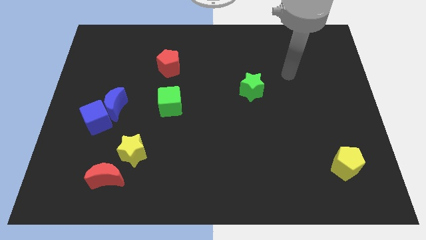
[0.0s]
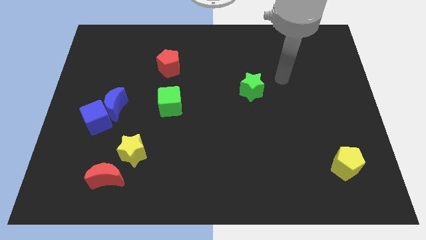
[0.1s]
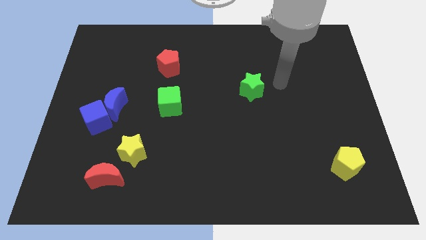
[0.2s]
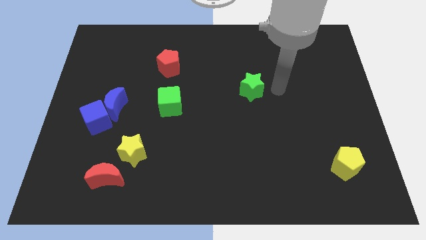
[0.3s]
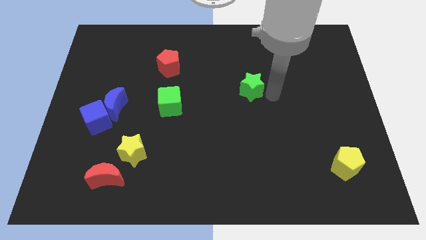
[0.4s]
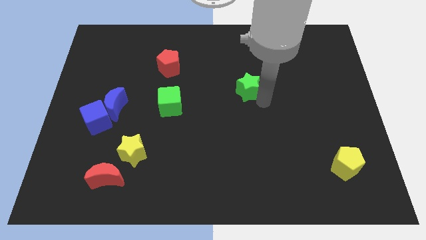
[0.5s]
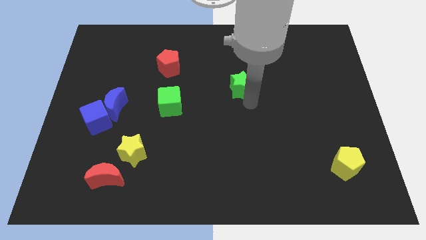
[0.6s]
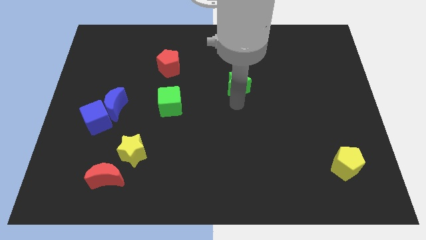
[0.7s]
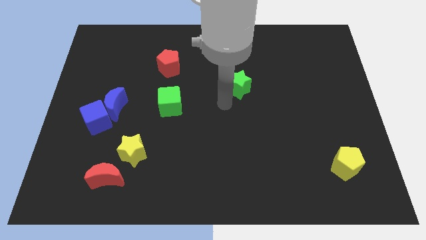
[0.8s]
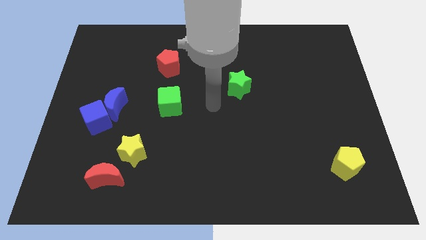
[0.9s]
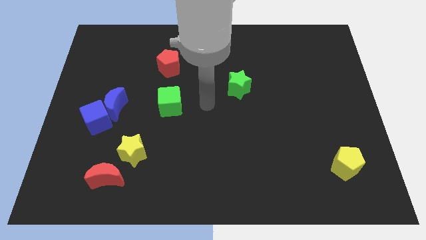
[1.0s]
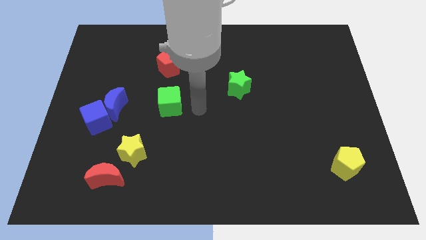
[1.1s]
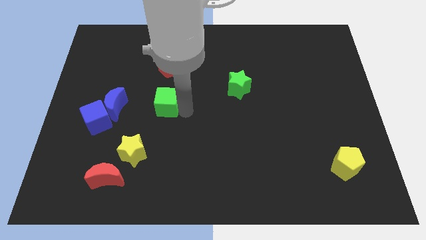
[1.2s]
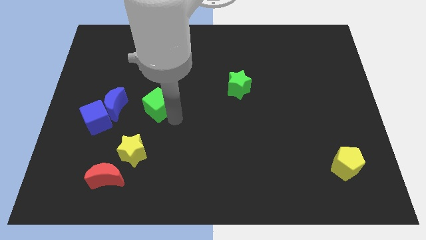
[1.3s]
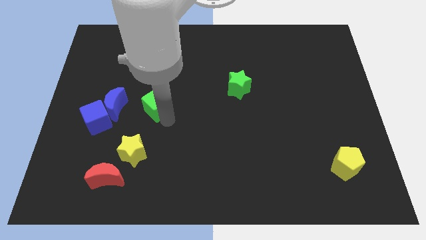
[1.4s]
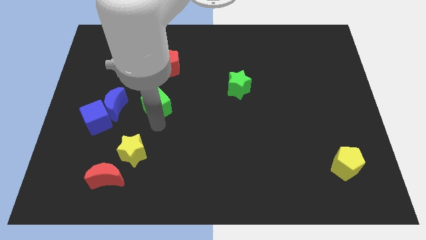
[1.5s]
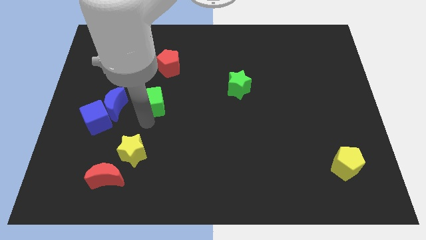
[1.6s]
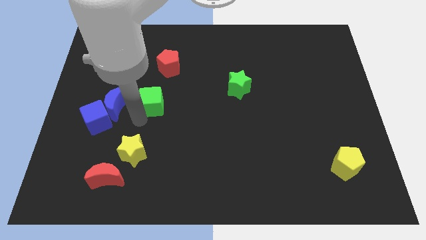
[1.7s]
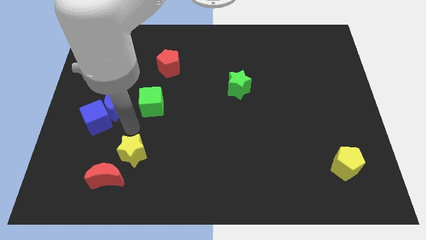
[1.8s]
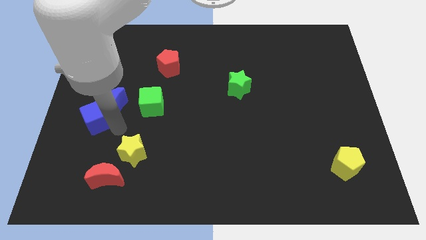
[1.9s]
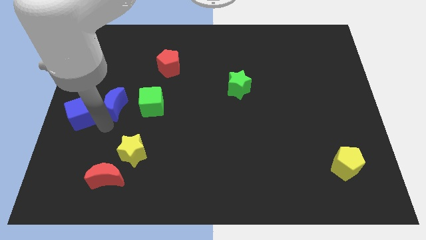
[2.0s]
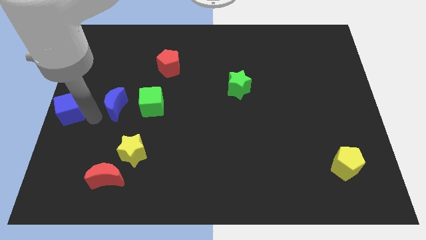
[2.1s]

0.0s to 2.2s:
separate the blue moon from the blue cube

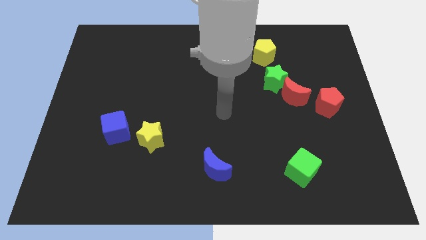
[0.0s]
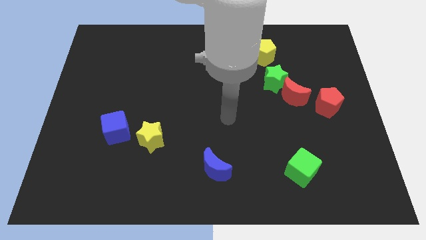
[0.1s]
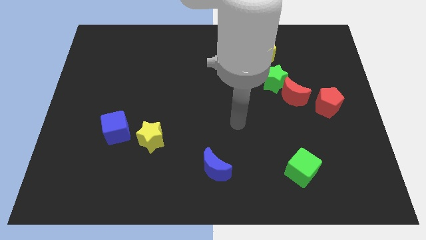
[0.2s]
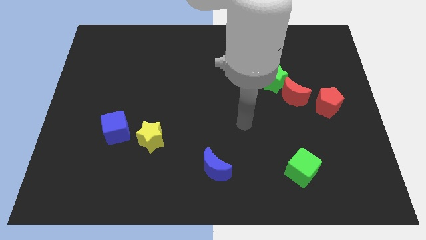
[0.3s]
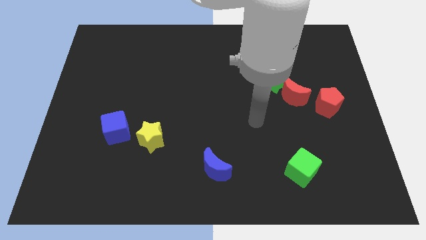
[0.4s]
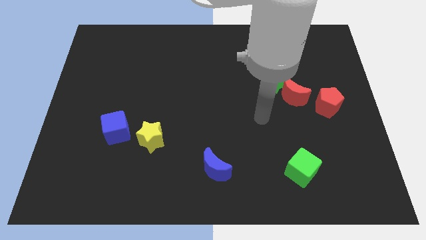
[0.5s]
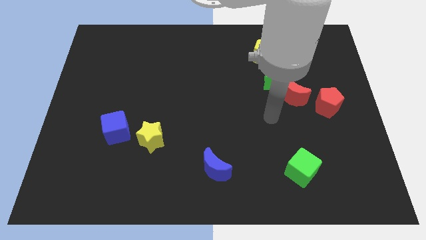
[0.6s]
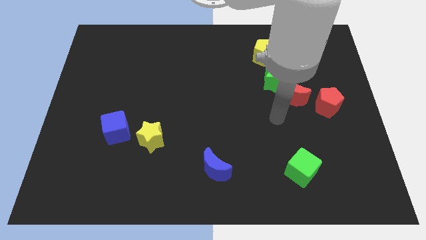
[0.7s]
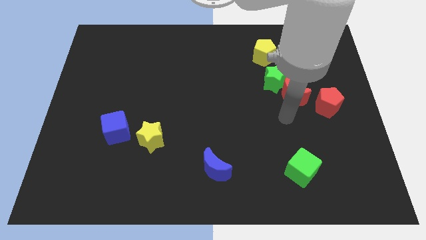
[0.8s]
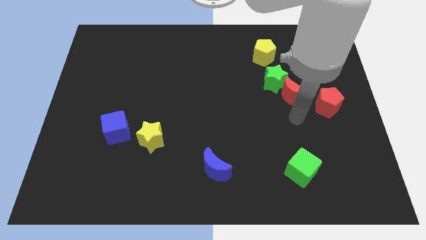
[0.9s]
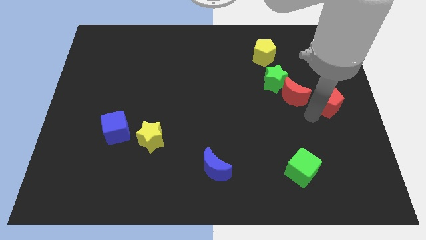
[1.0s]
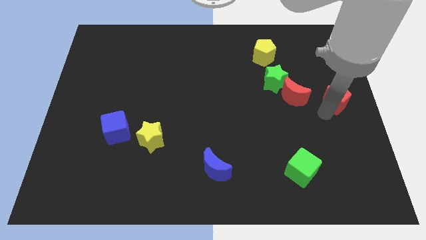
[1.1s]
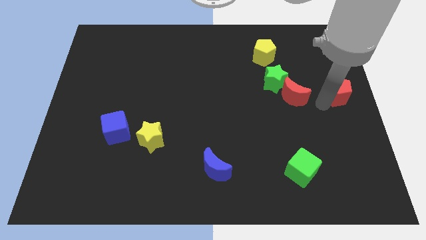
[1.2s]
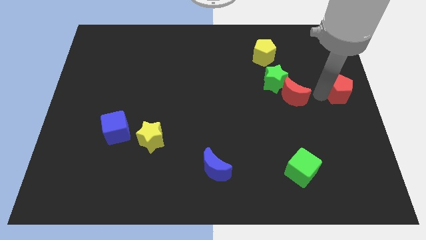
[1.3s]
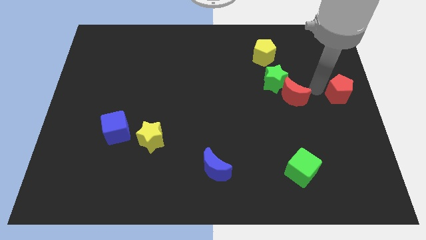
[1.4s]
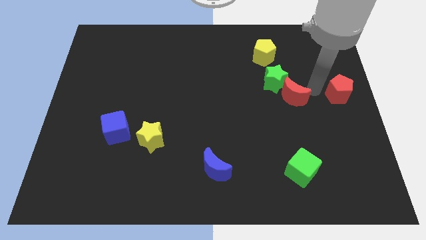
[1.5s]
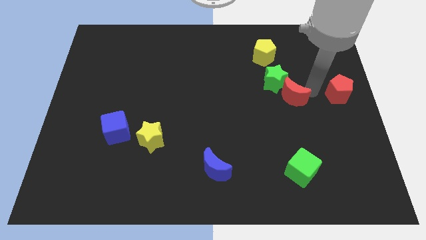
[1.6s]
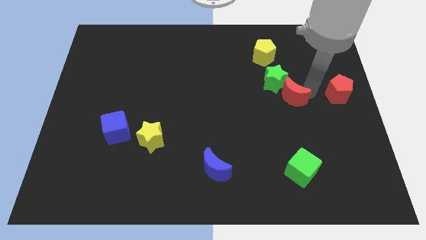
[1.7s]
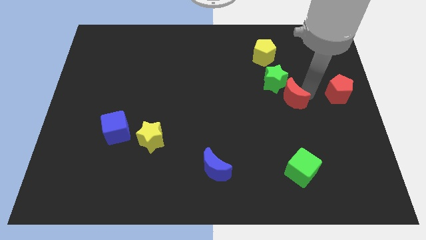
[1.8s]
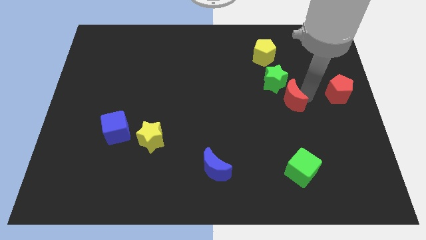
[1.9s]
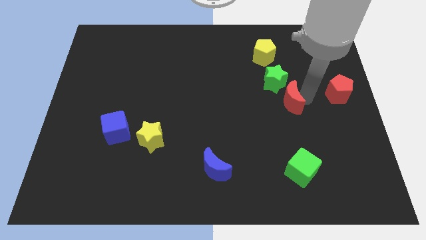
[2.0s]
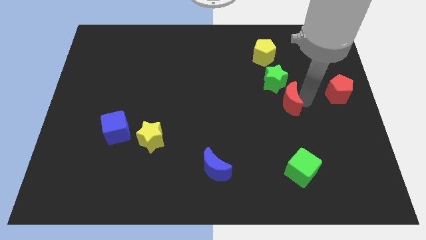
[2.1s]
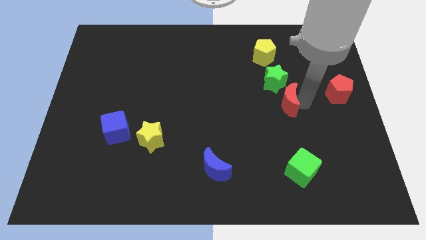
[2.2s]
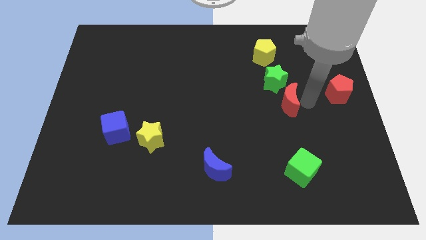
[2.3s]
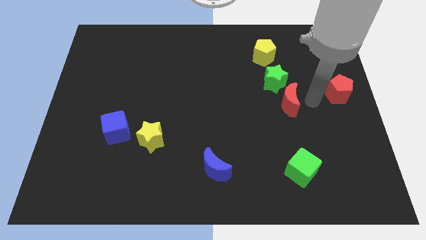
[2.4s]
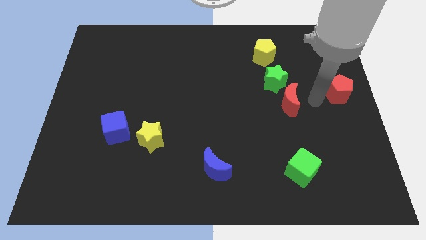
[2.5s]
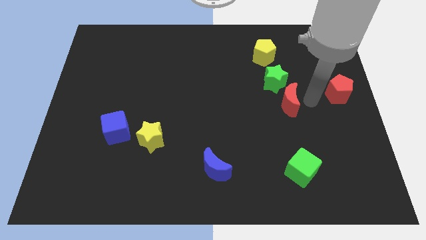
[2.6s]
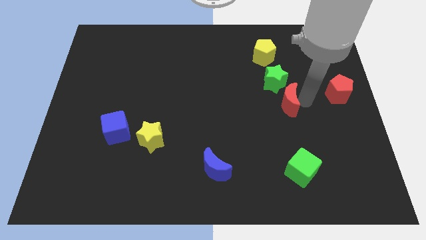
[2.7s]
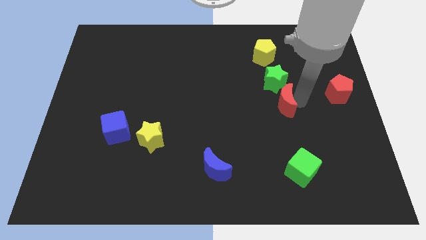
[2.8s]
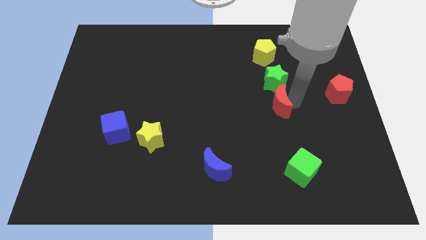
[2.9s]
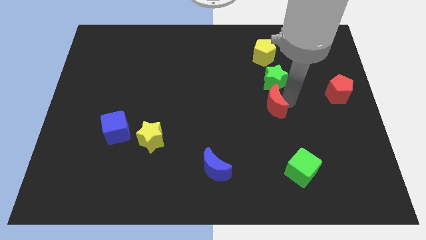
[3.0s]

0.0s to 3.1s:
separate the red moon from the green star and red pentagon

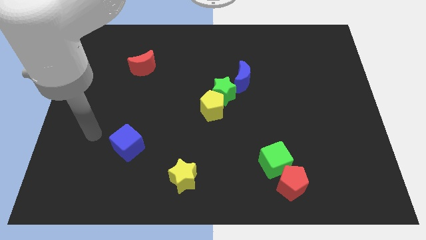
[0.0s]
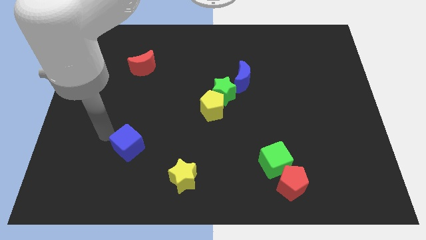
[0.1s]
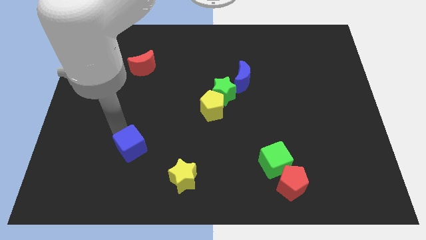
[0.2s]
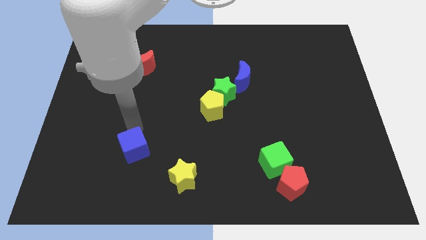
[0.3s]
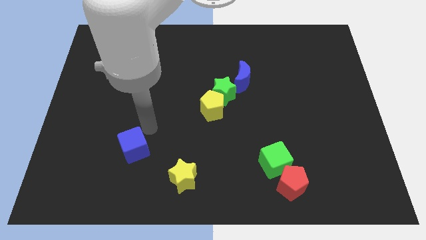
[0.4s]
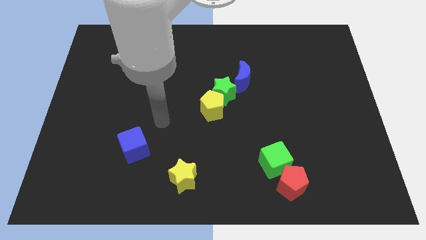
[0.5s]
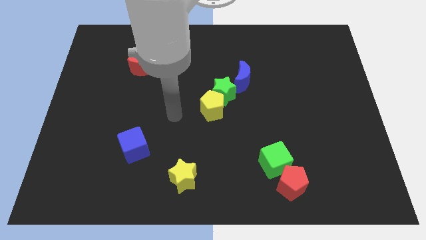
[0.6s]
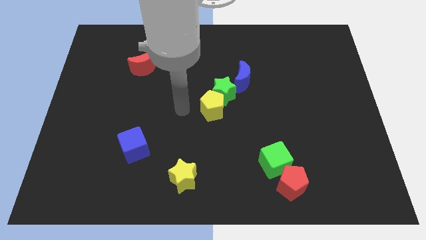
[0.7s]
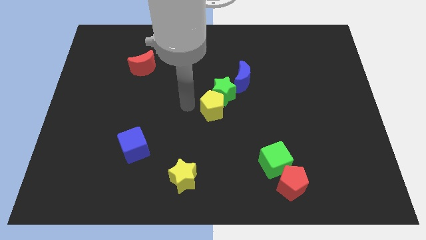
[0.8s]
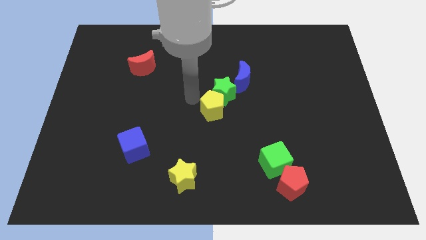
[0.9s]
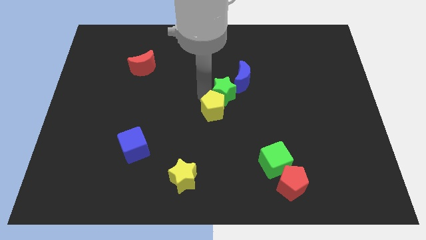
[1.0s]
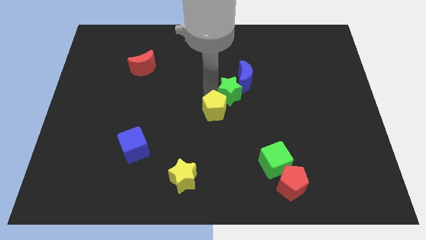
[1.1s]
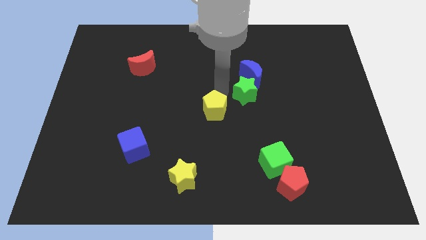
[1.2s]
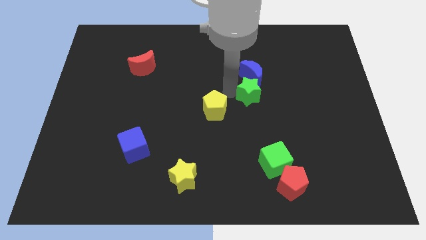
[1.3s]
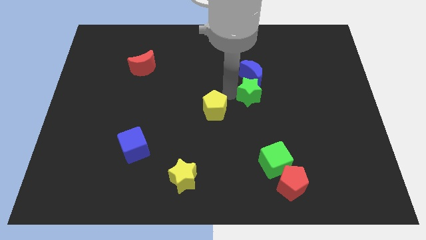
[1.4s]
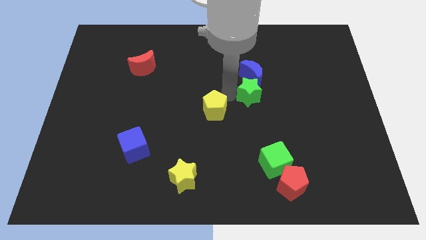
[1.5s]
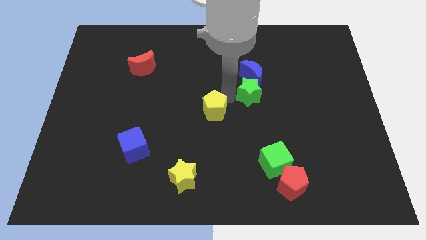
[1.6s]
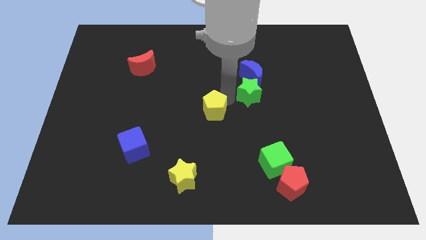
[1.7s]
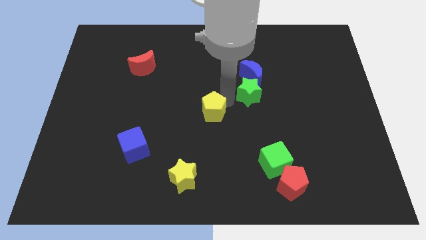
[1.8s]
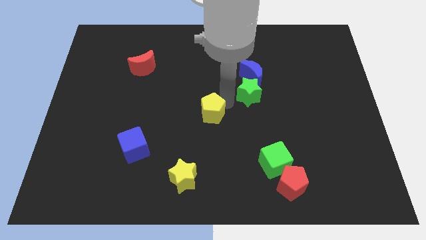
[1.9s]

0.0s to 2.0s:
move the yellow pentagon away from the green star

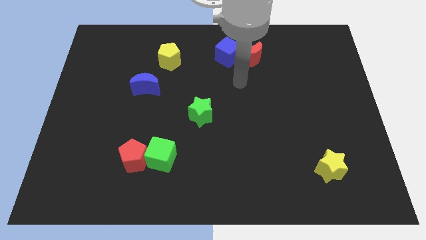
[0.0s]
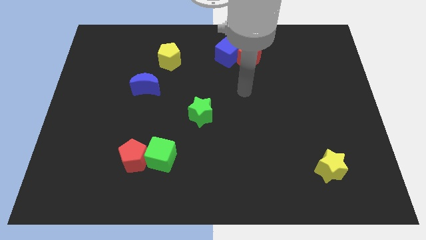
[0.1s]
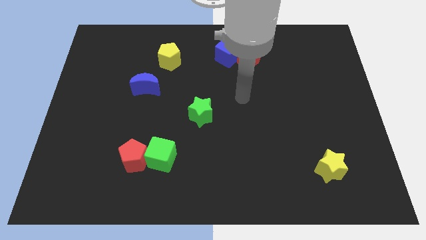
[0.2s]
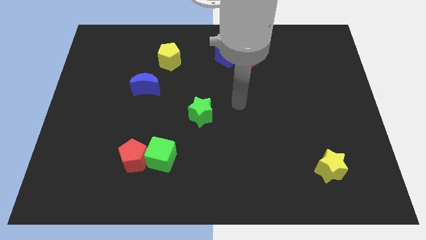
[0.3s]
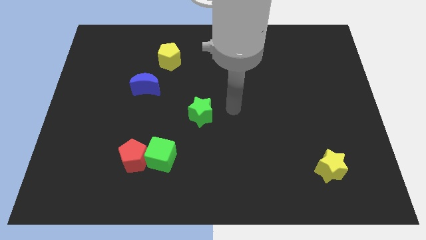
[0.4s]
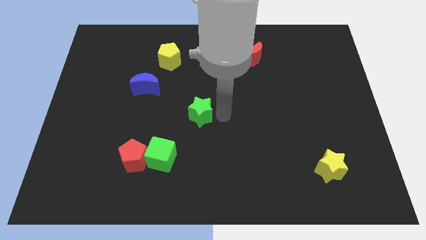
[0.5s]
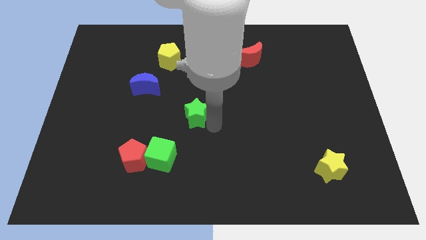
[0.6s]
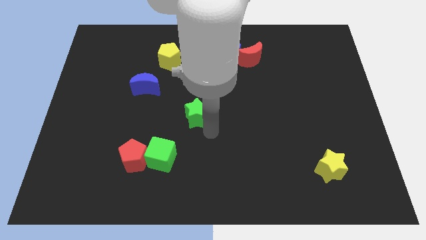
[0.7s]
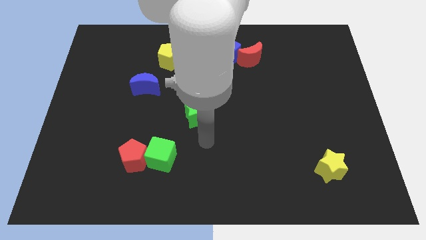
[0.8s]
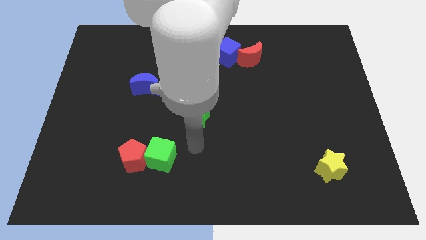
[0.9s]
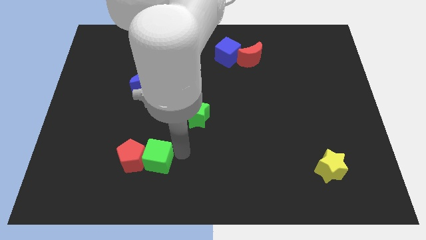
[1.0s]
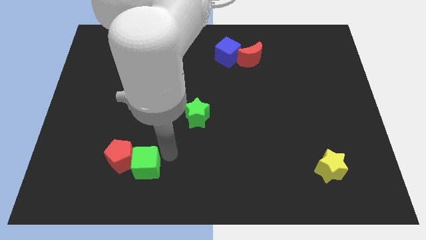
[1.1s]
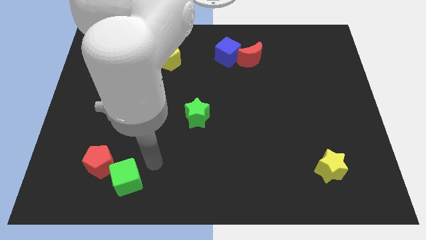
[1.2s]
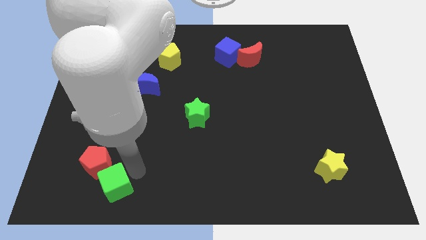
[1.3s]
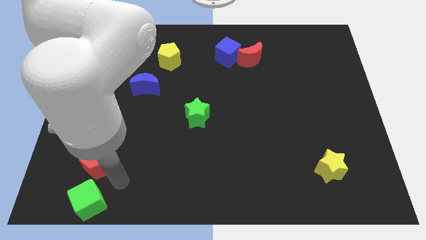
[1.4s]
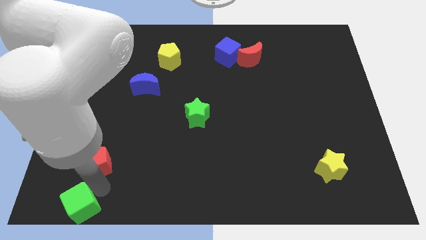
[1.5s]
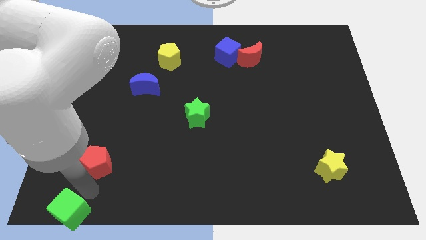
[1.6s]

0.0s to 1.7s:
separate the red pentagon from the green cube

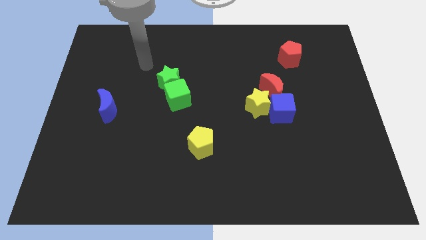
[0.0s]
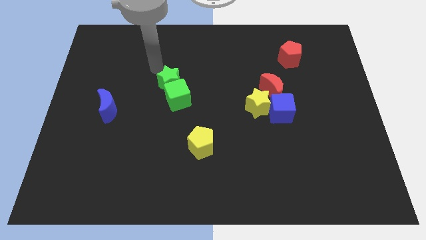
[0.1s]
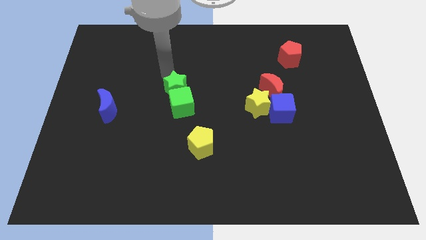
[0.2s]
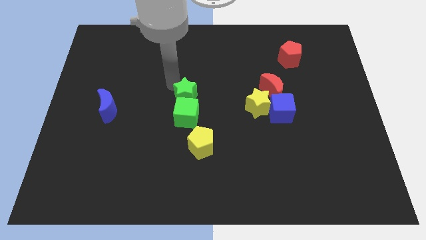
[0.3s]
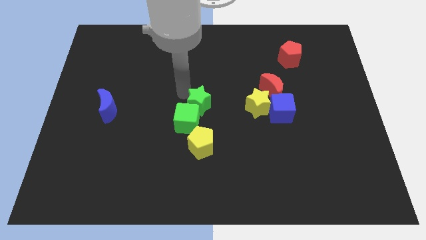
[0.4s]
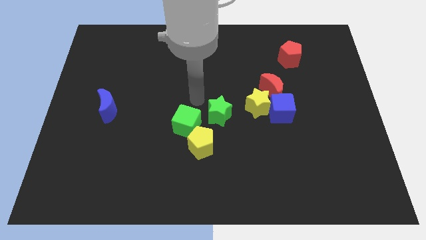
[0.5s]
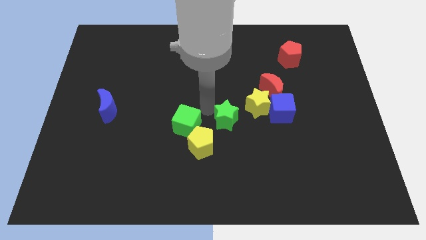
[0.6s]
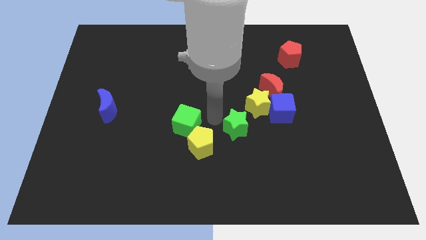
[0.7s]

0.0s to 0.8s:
move the green cube away from the green star
